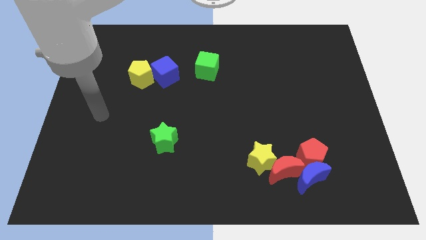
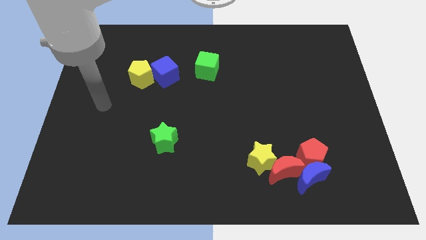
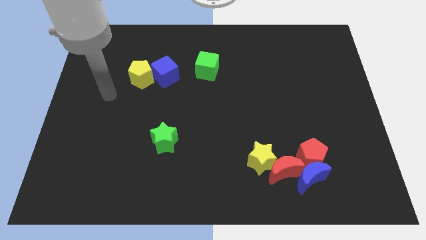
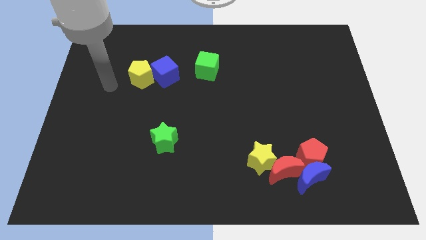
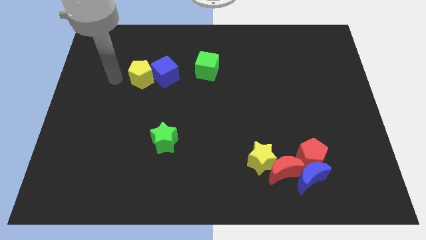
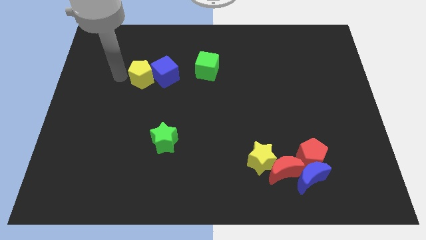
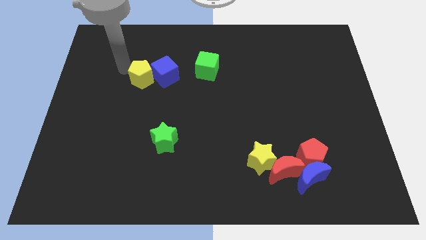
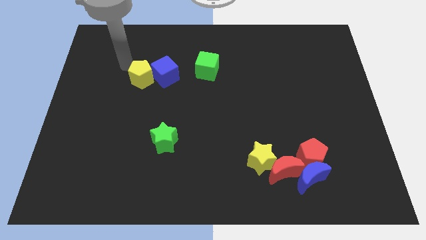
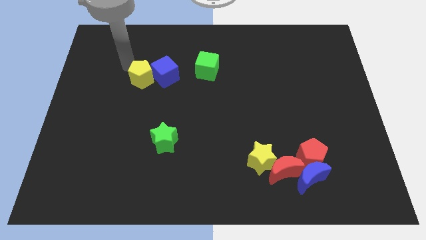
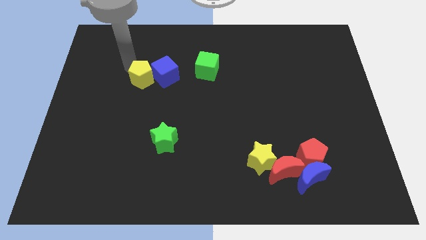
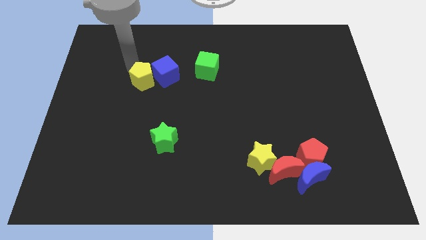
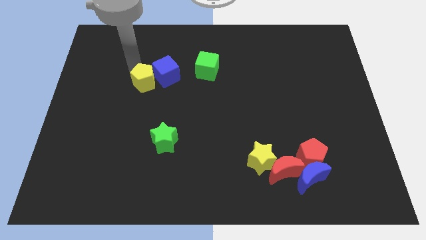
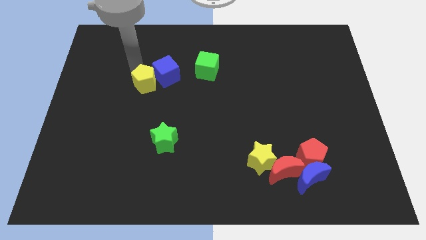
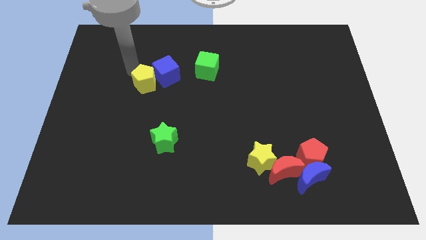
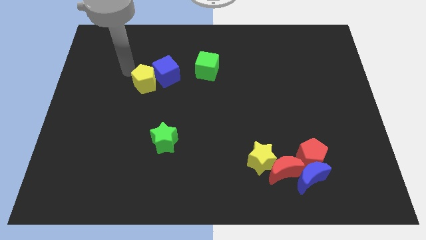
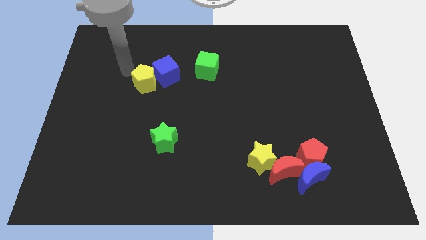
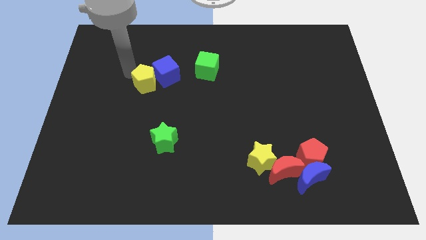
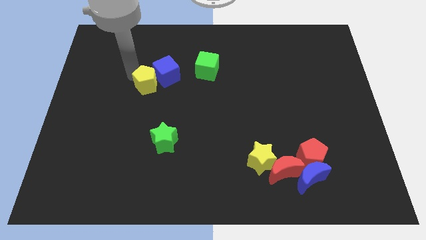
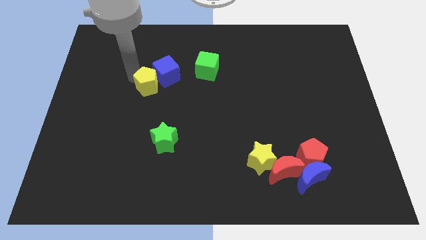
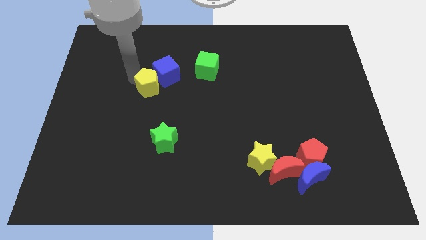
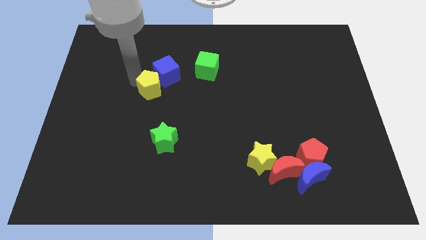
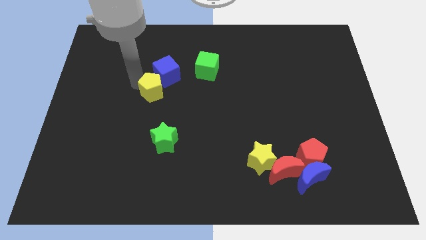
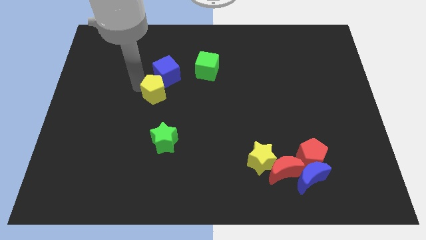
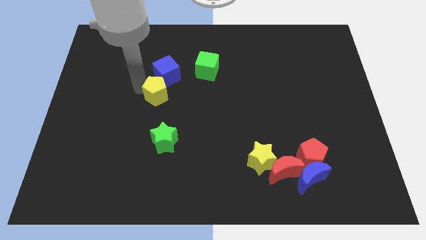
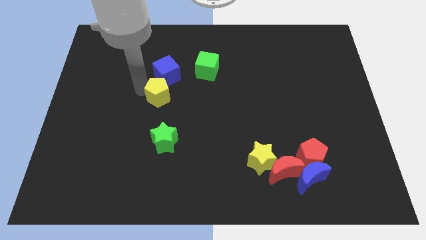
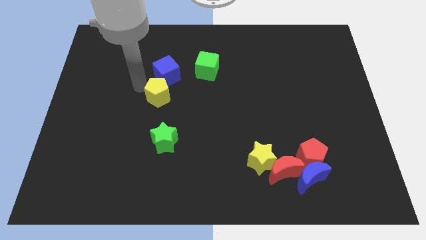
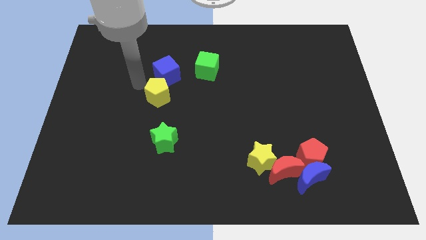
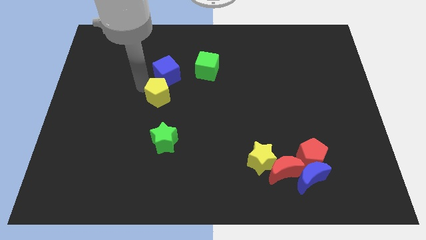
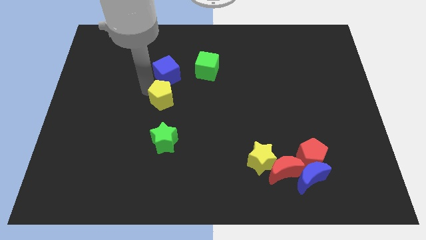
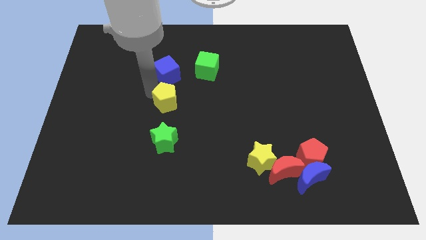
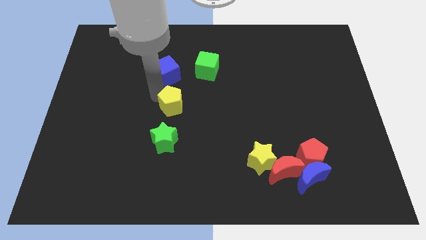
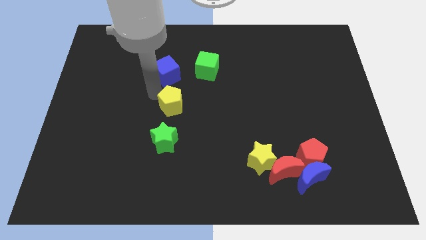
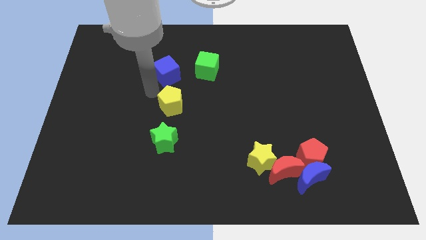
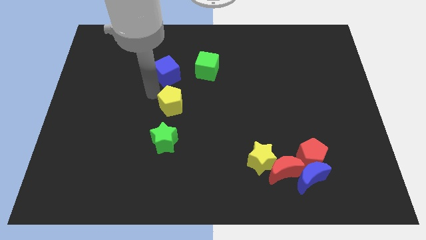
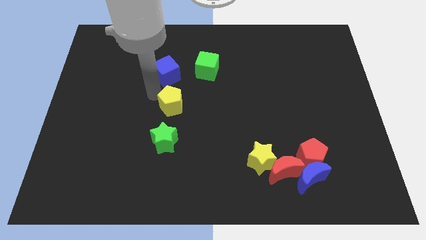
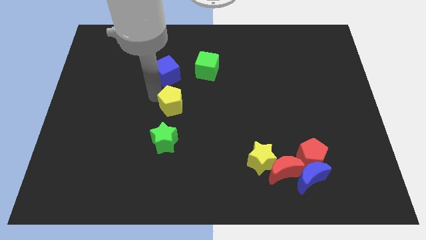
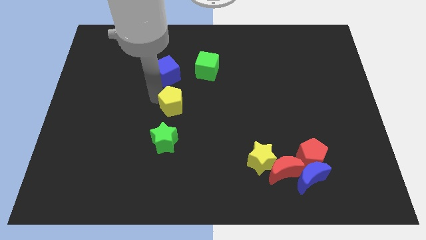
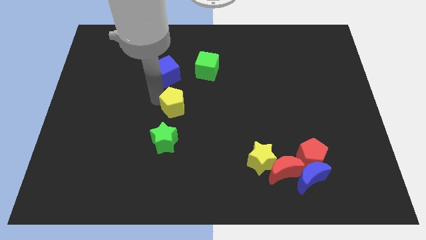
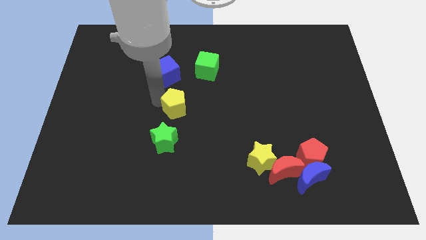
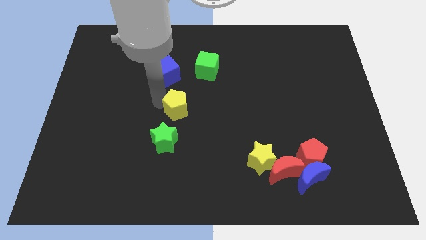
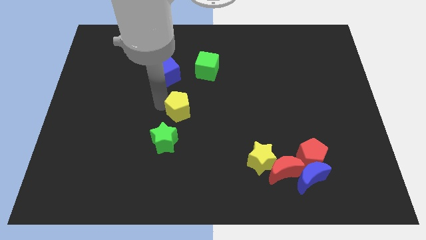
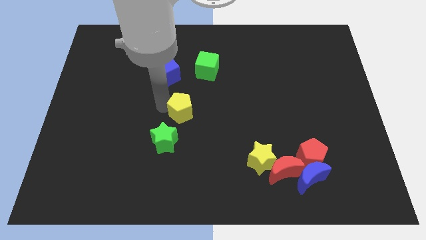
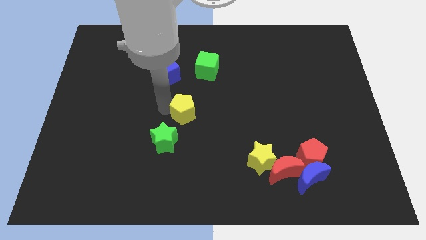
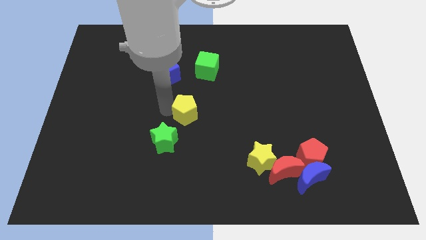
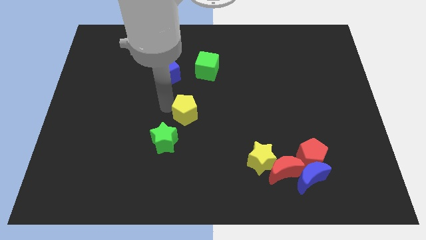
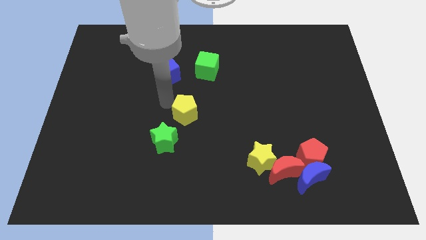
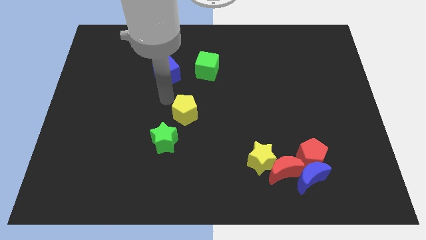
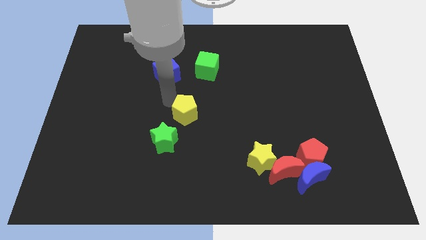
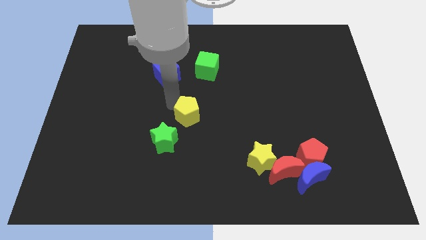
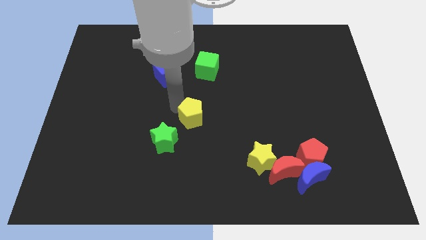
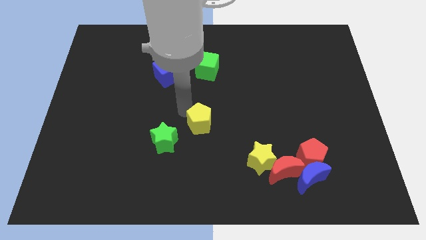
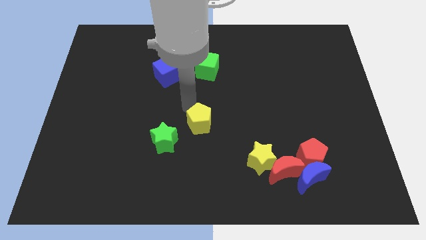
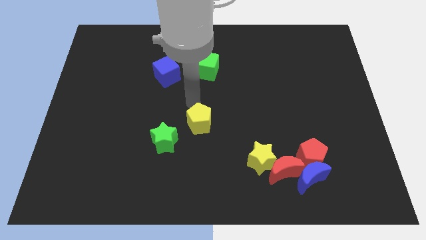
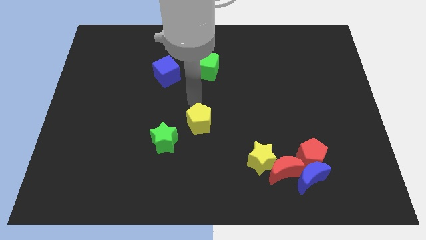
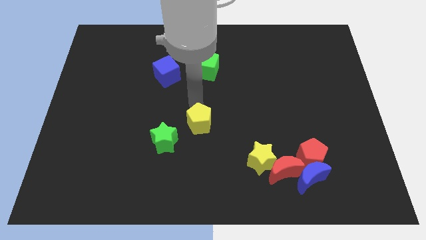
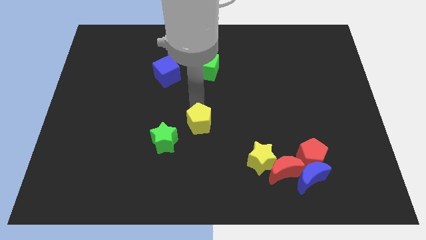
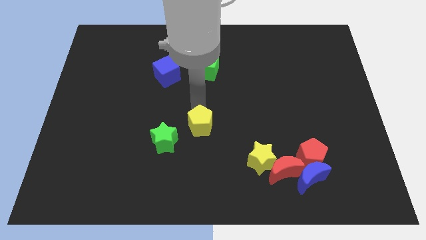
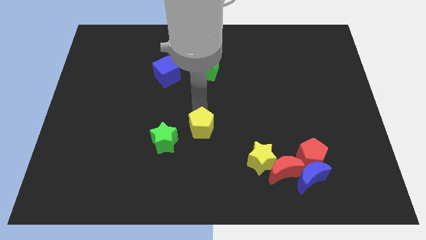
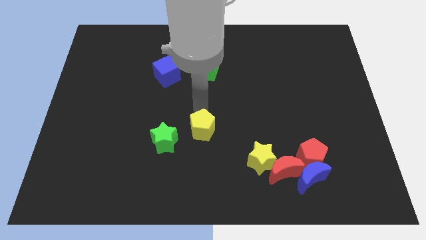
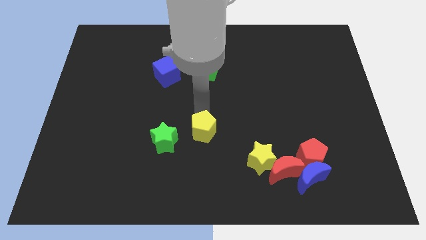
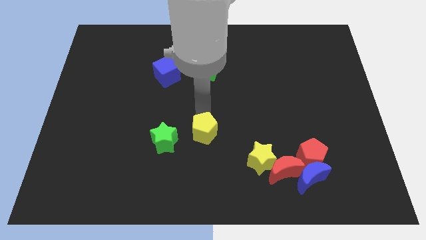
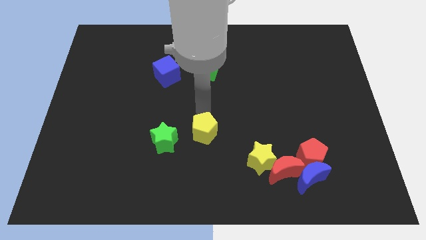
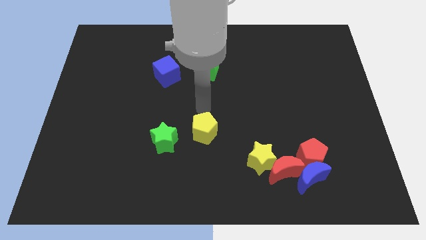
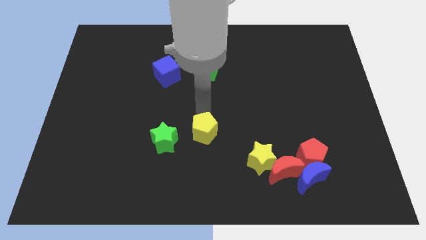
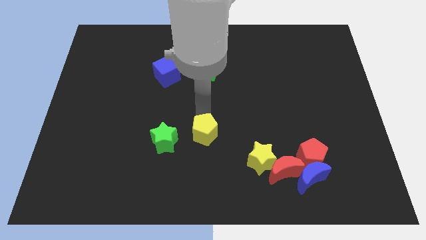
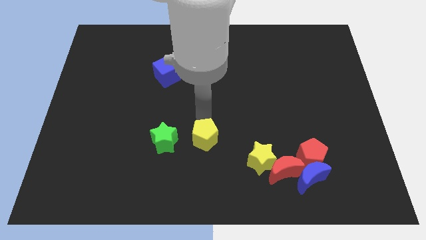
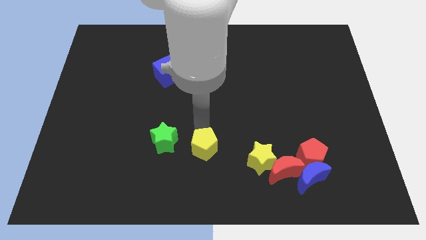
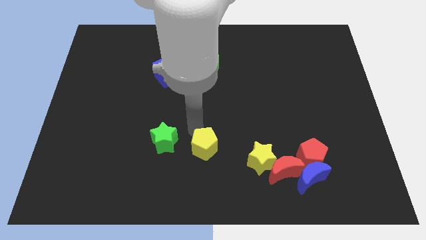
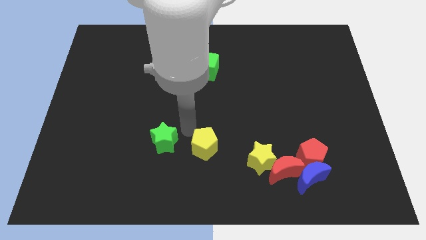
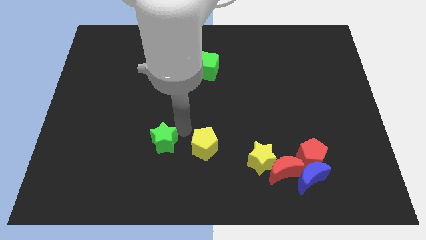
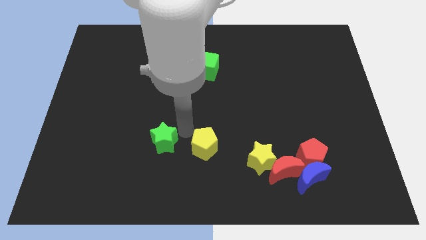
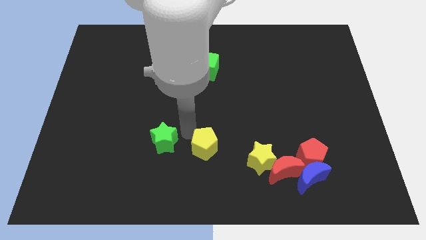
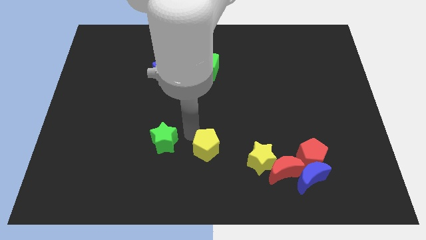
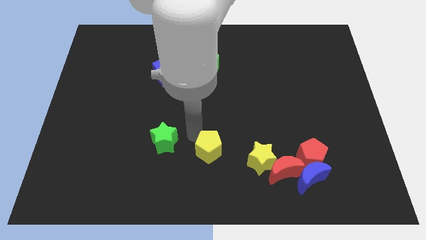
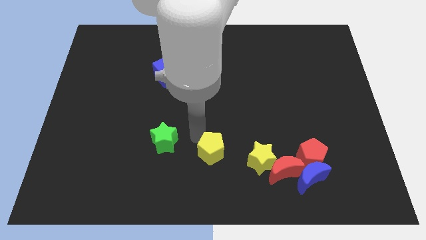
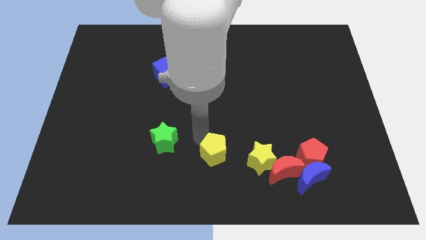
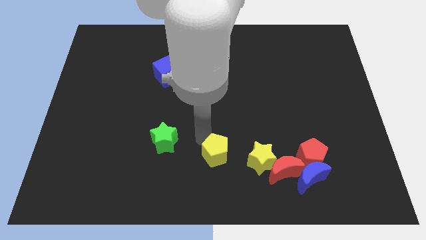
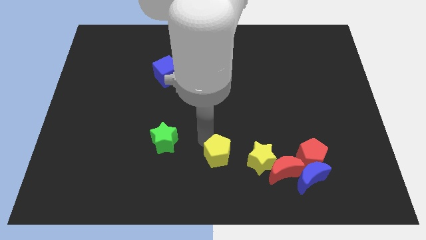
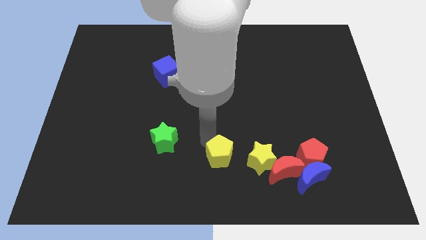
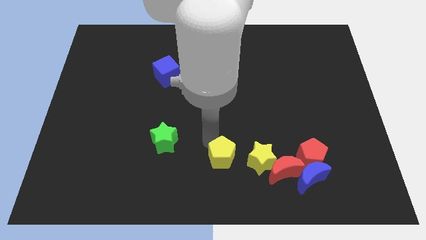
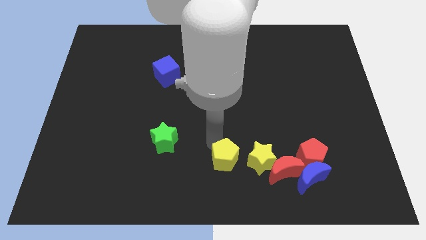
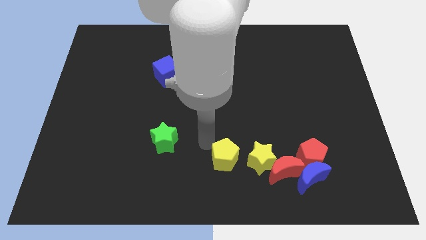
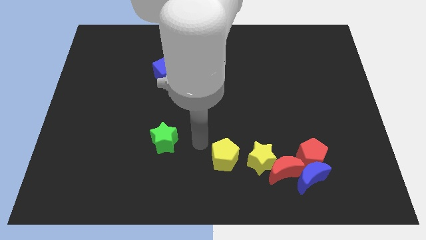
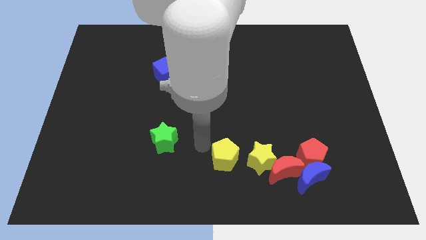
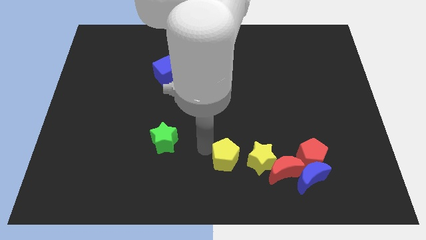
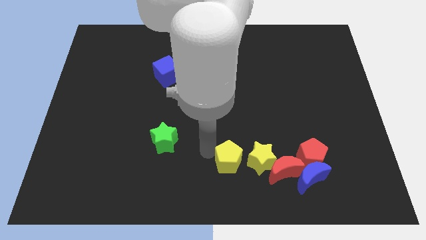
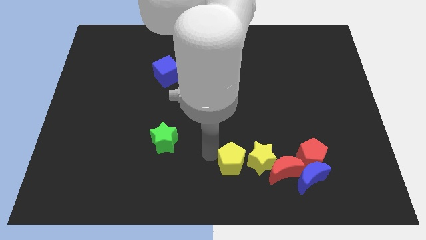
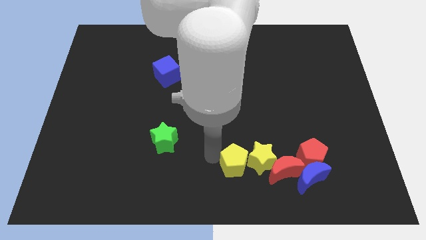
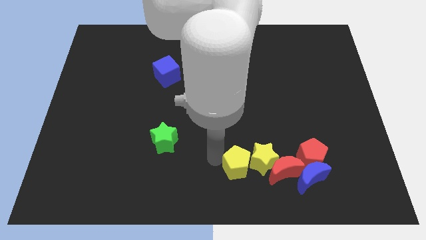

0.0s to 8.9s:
push the yellow pentagon to the left of the blue moon
